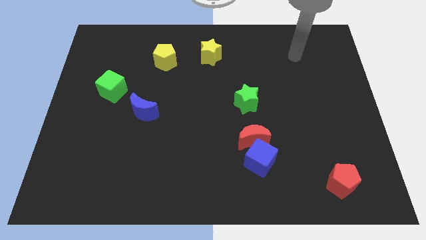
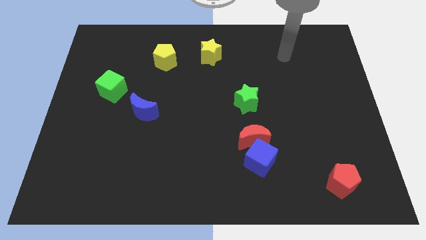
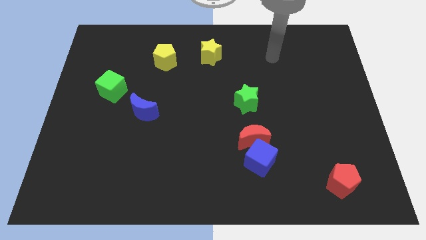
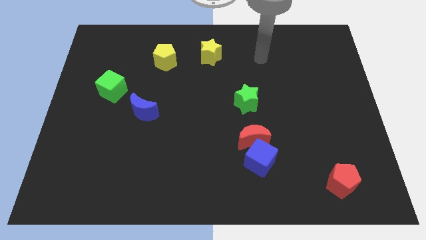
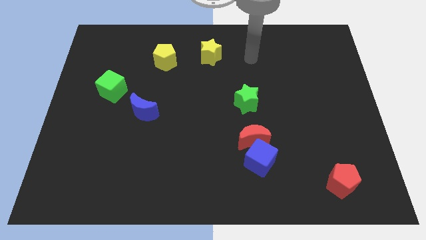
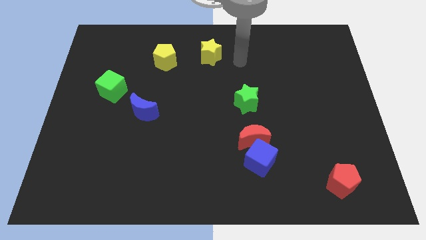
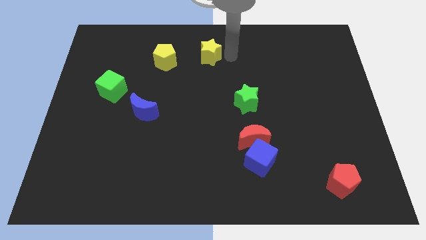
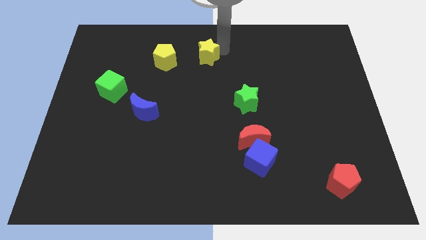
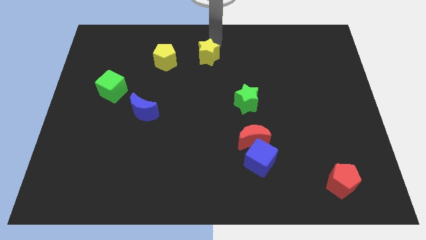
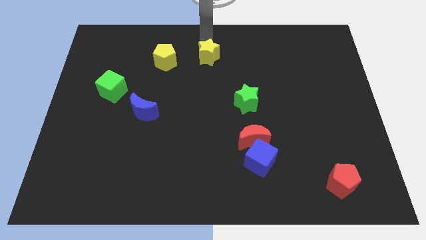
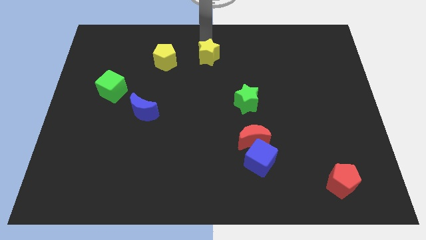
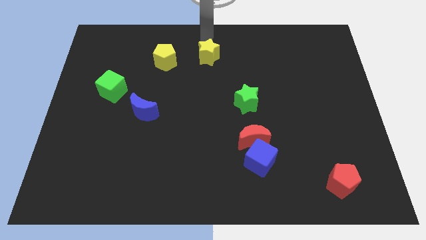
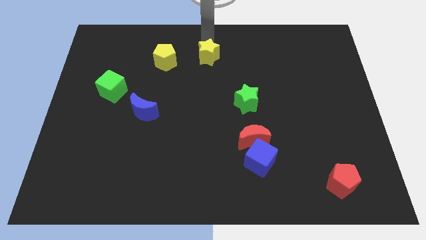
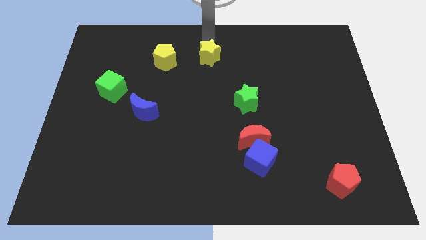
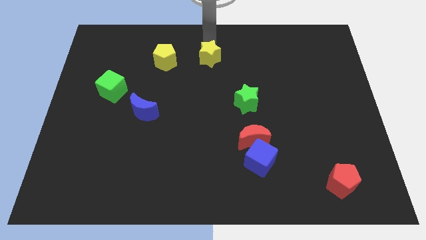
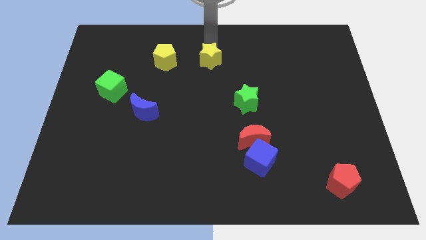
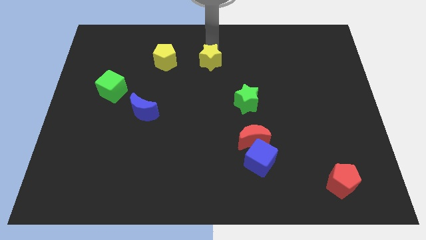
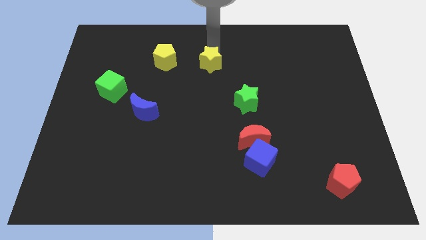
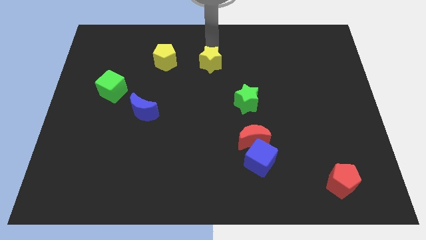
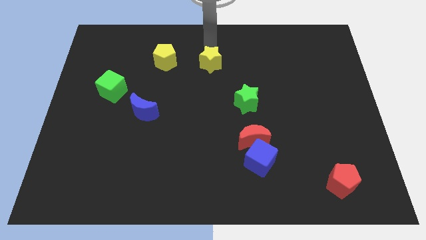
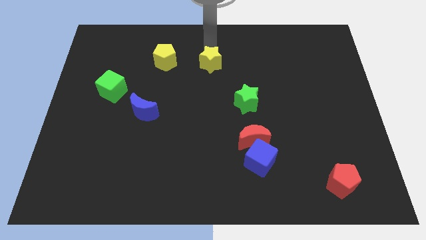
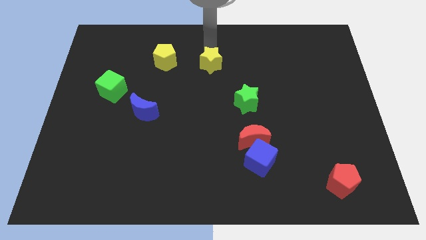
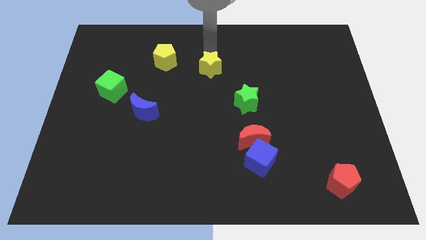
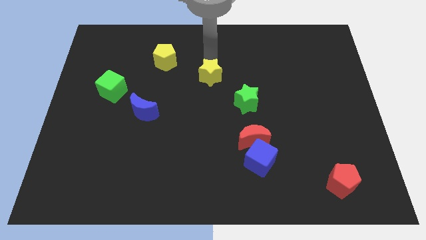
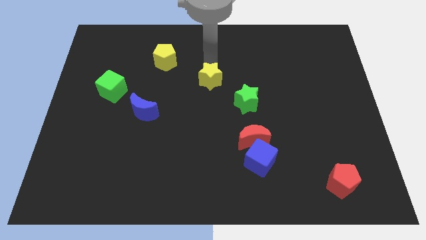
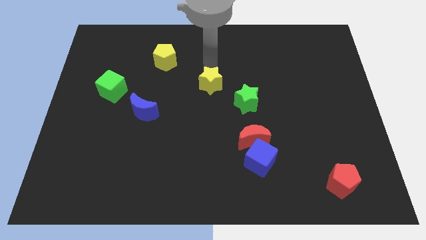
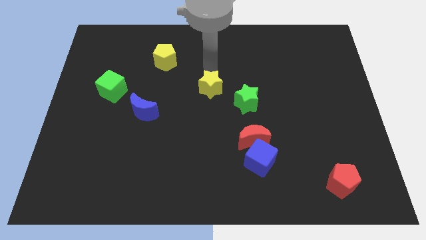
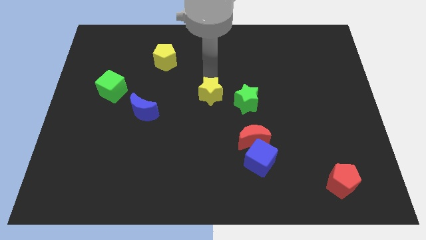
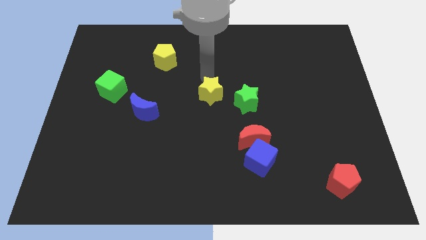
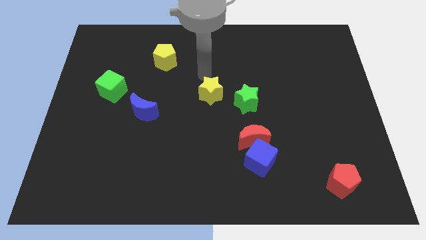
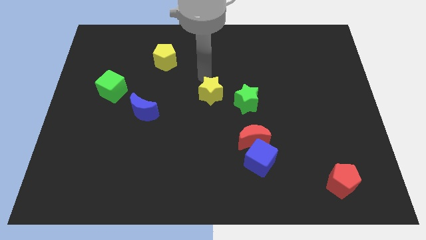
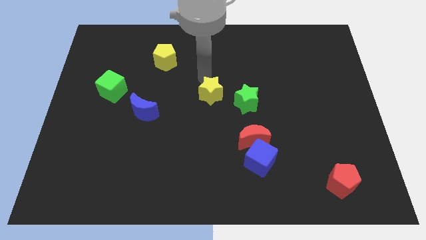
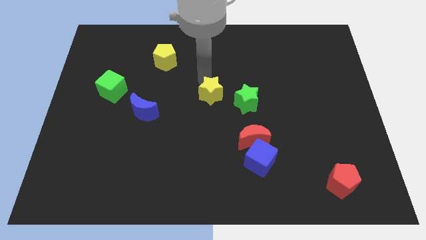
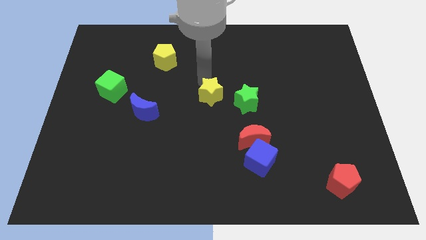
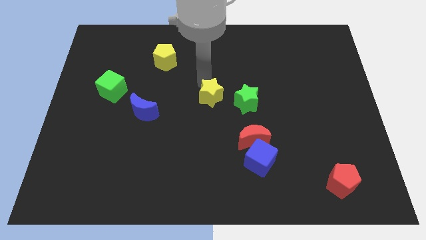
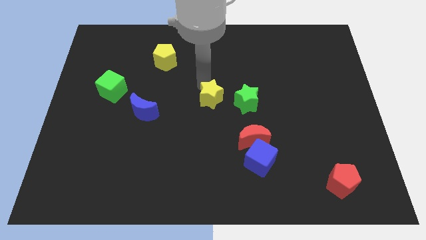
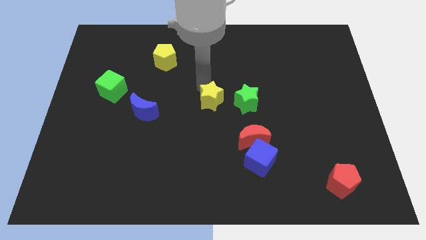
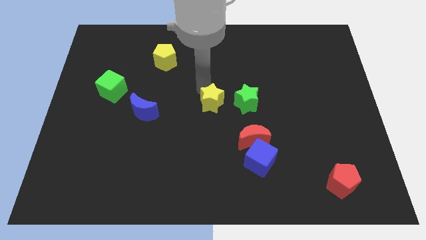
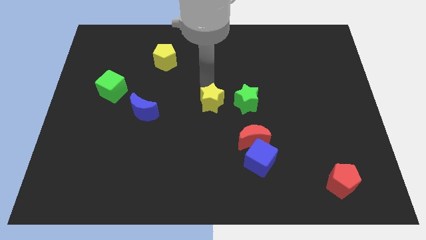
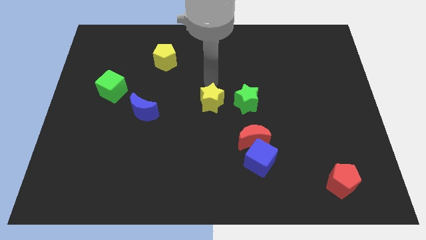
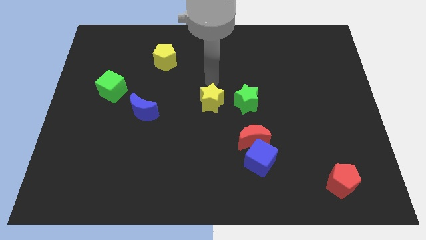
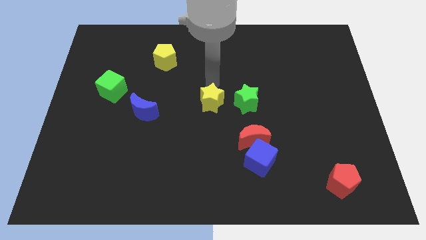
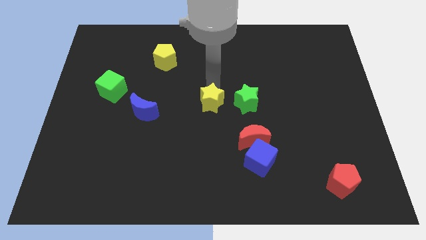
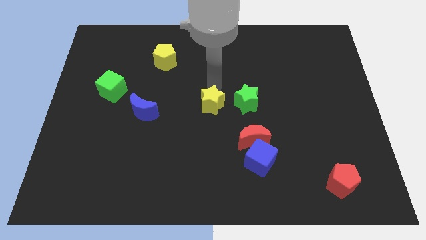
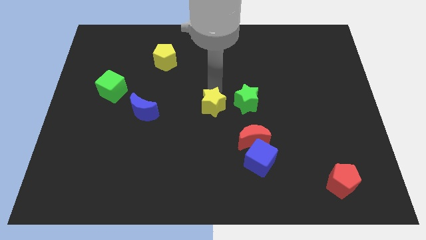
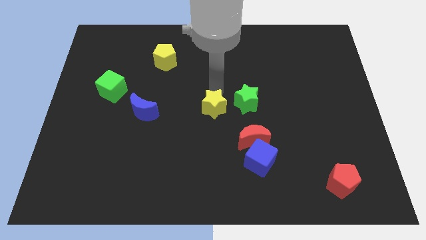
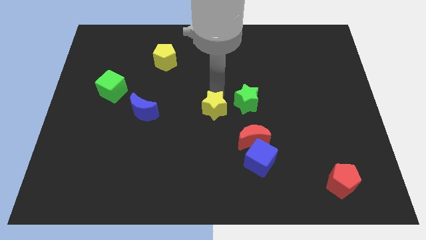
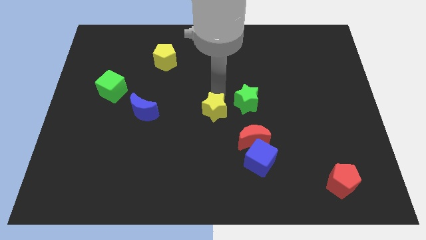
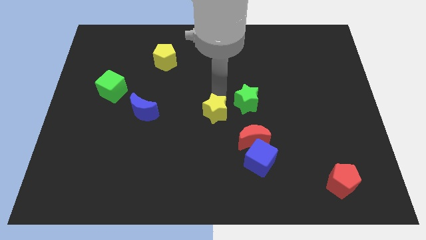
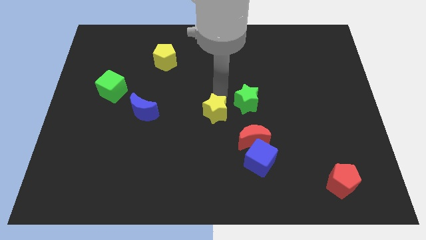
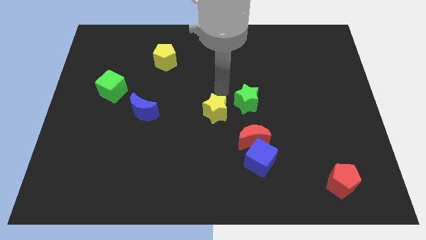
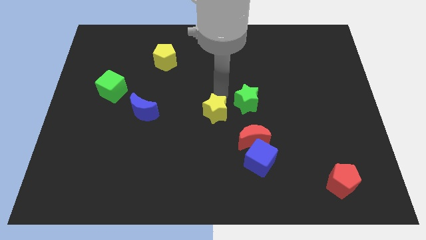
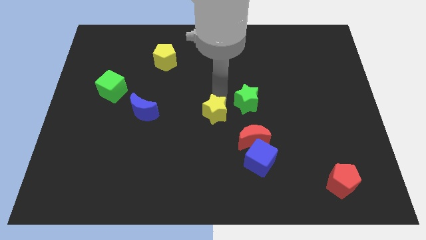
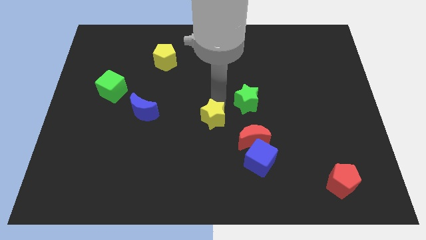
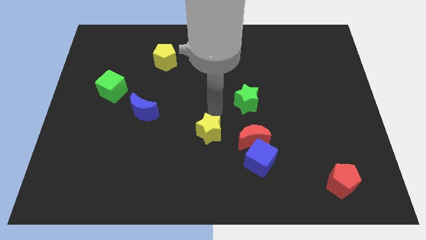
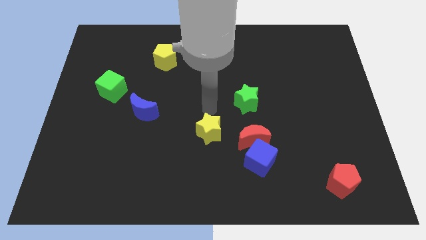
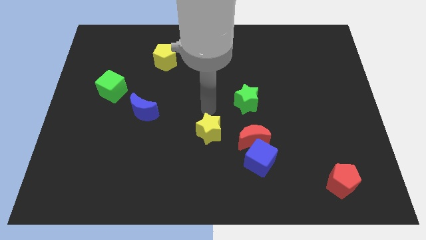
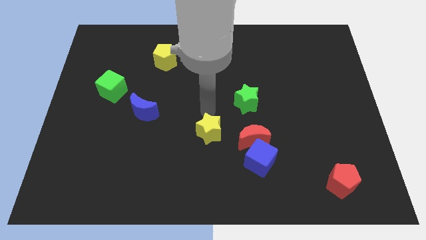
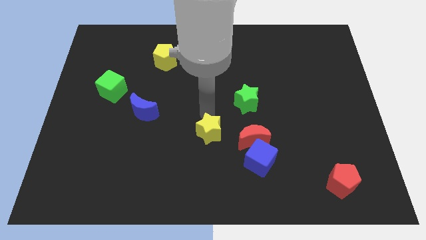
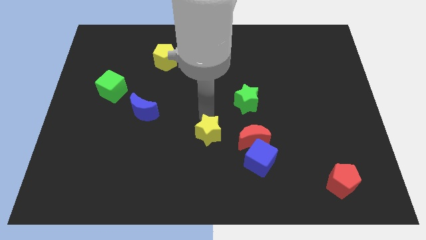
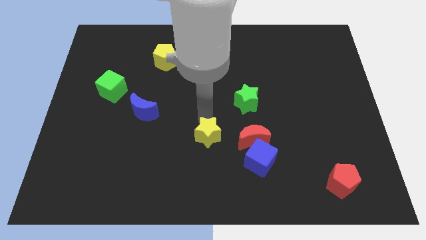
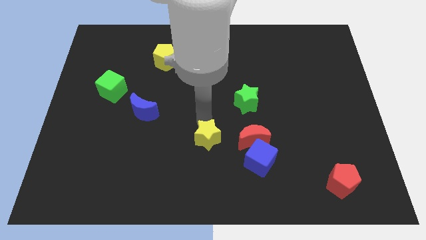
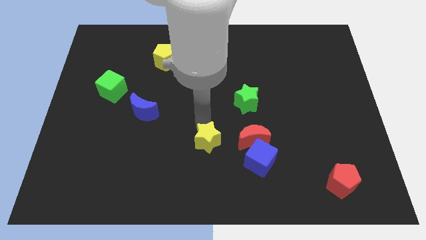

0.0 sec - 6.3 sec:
push the yellow star to the left of the blue cube

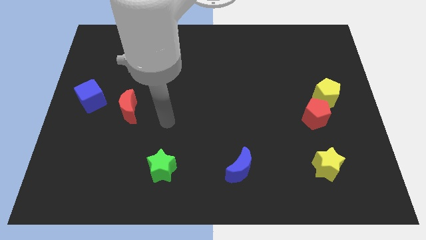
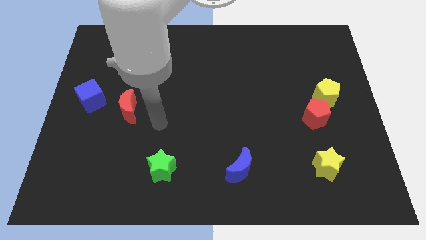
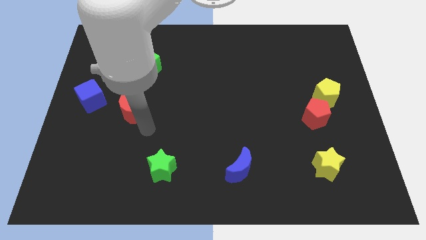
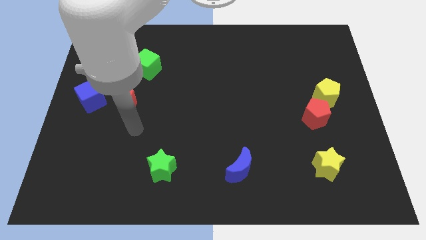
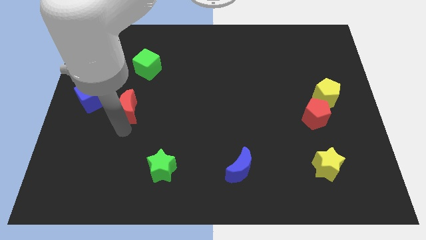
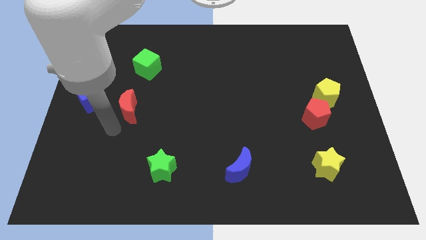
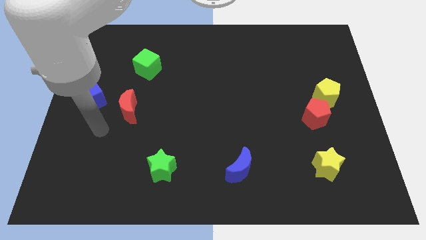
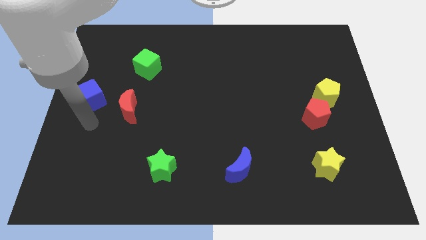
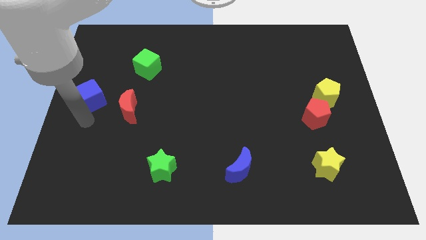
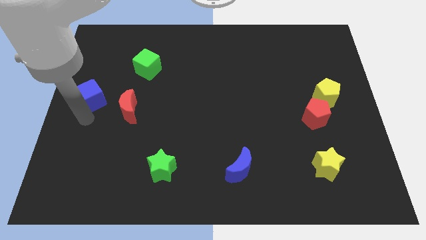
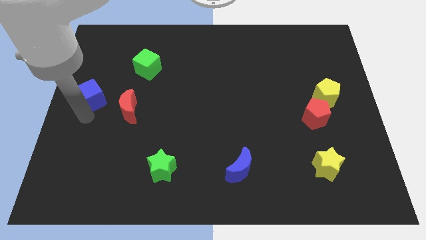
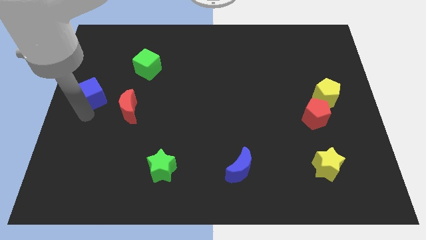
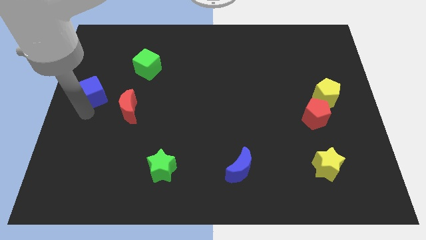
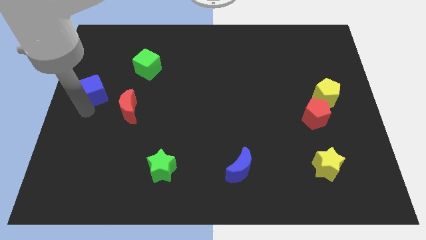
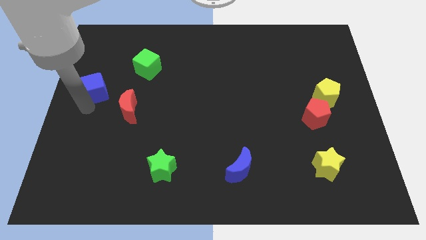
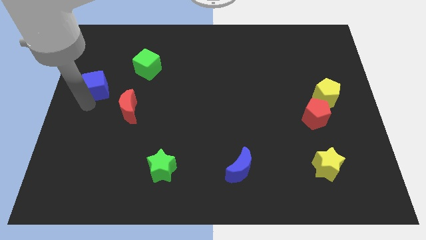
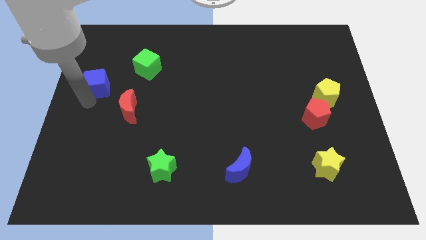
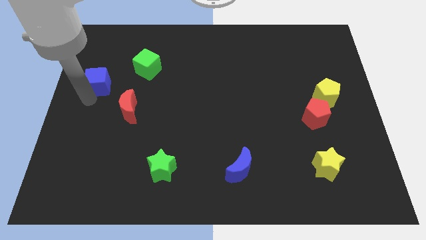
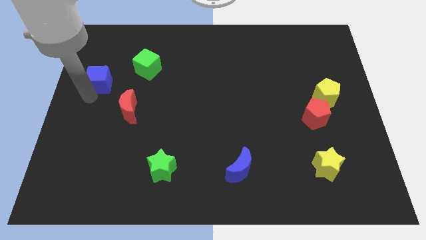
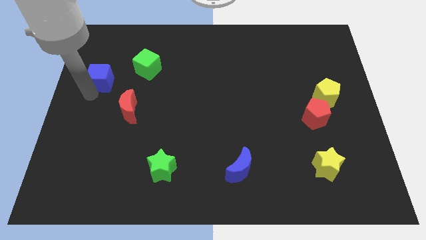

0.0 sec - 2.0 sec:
move the blue cube left of the green cube
